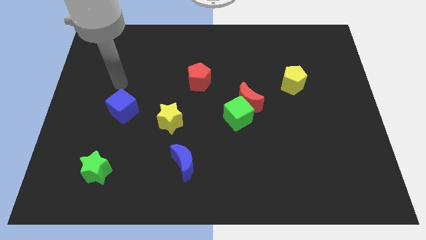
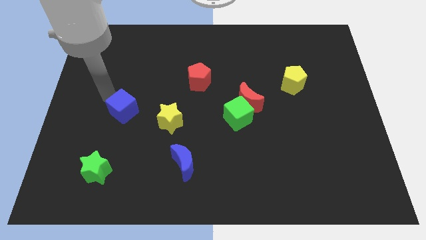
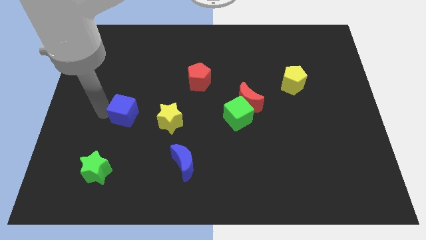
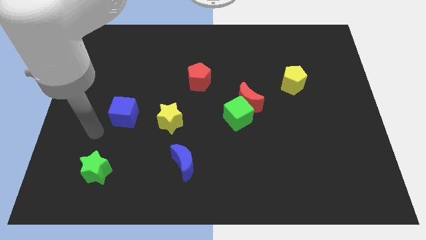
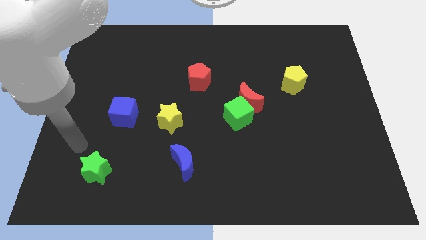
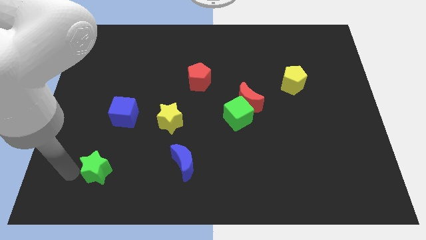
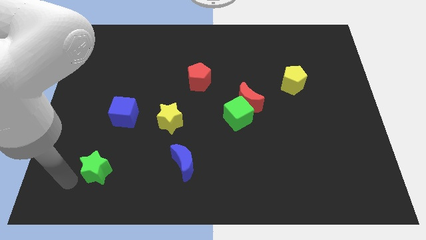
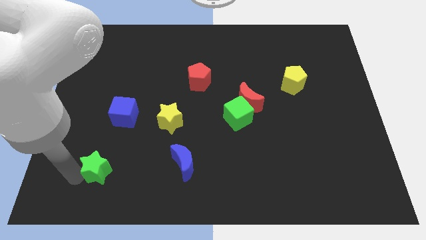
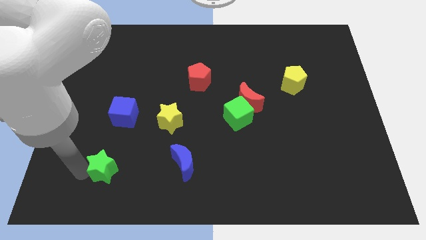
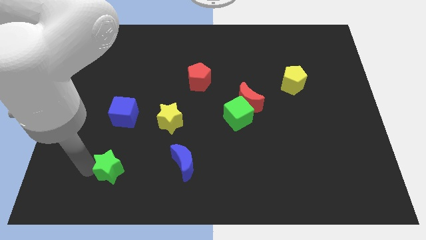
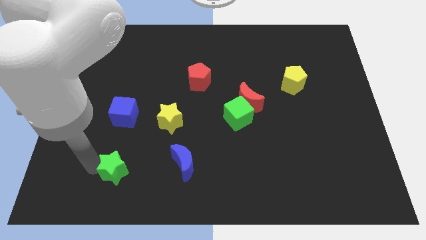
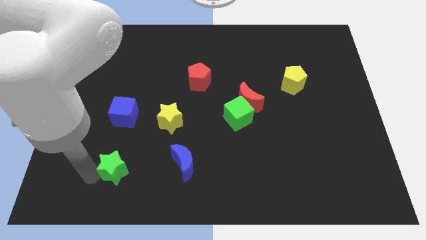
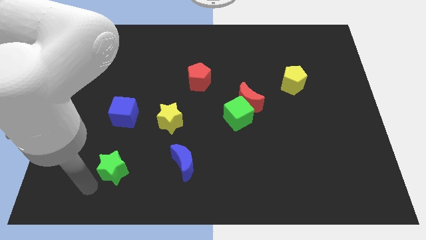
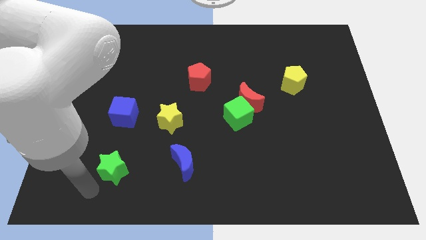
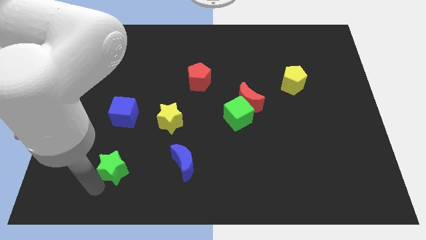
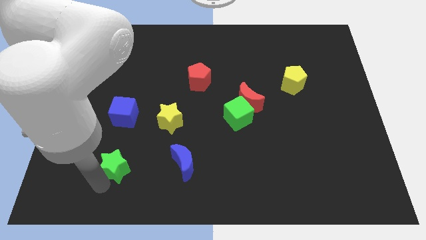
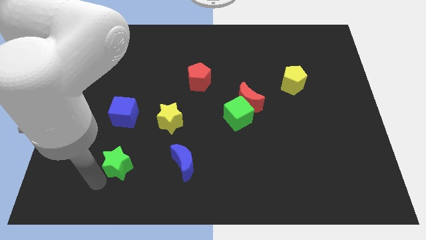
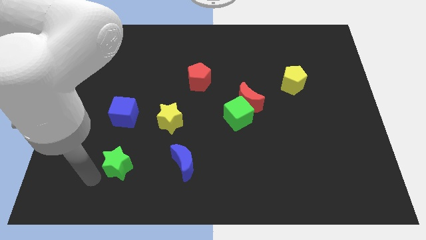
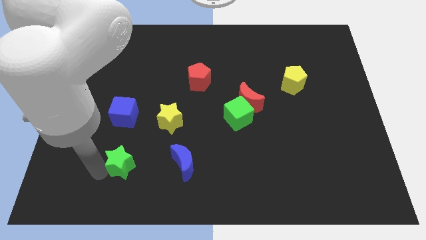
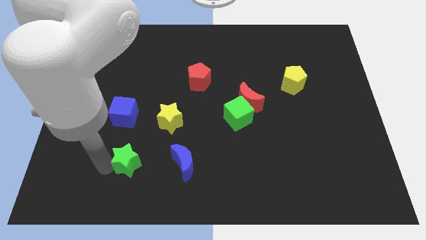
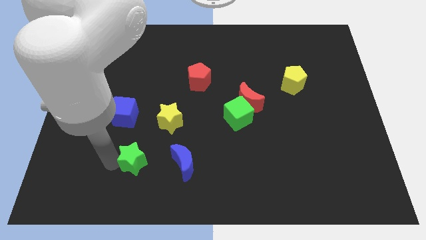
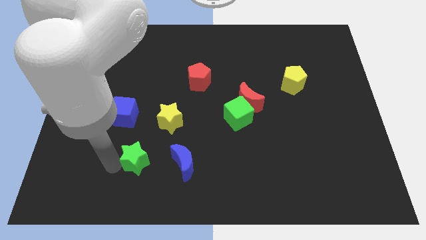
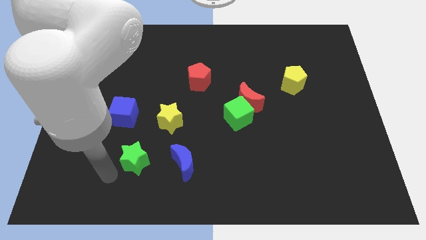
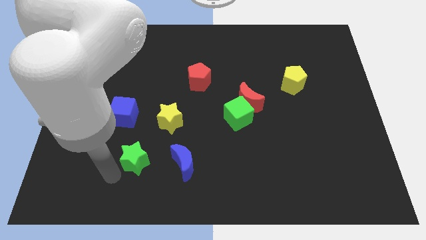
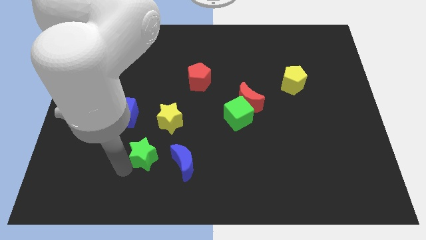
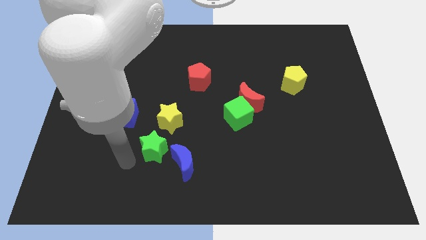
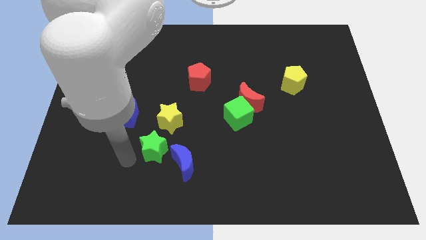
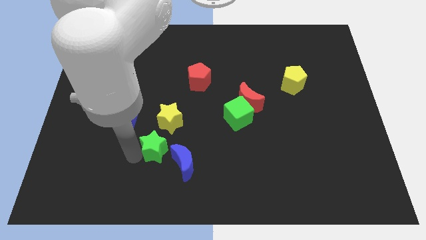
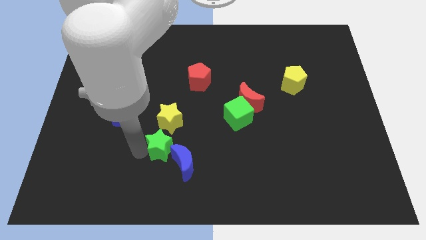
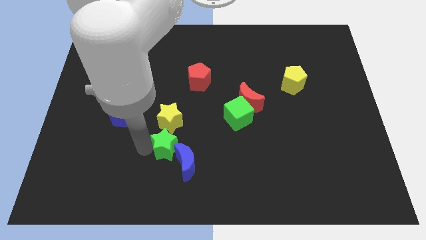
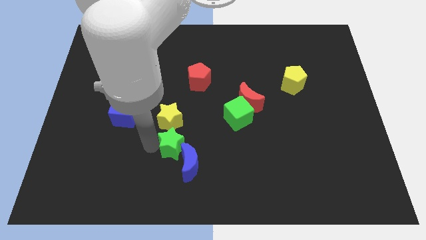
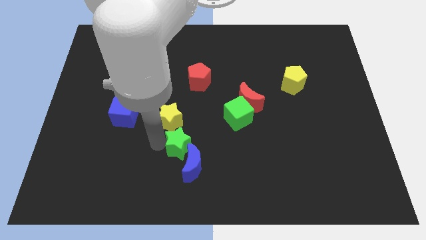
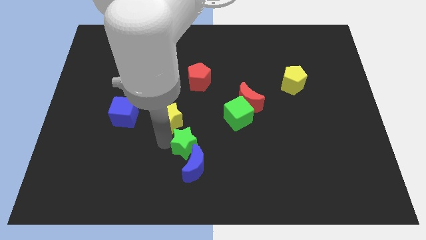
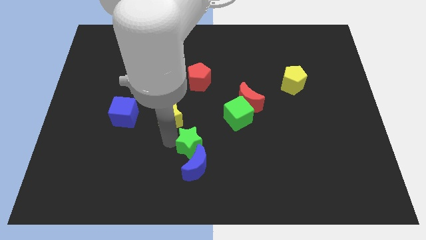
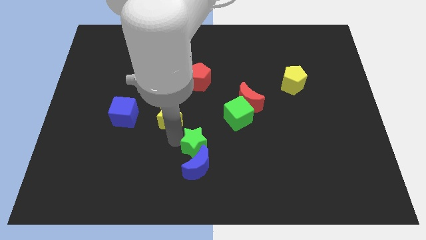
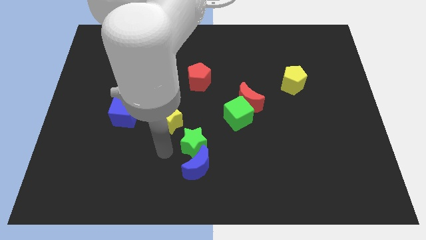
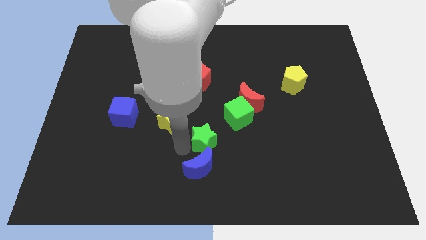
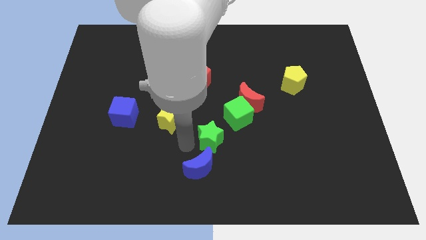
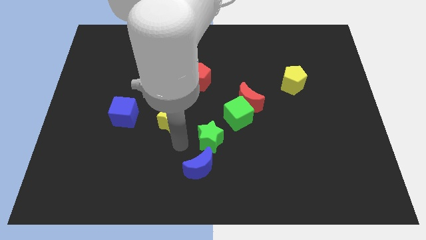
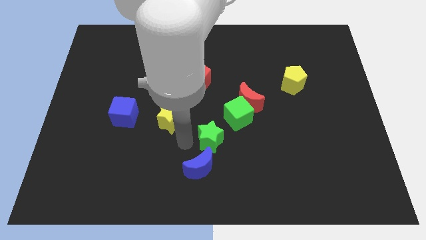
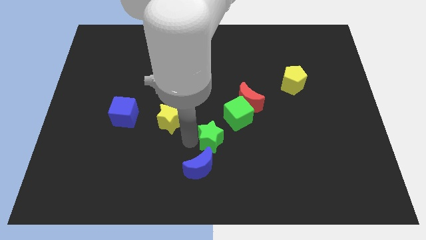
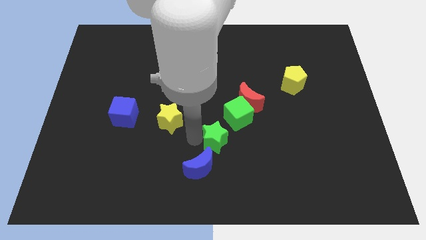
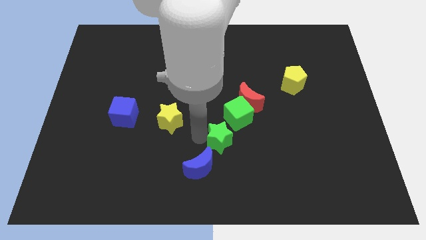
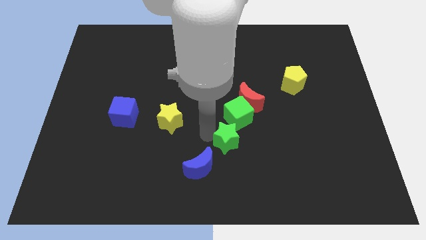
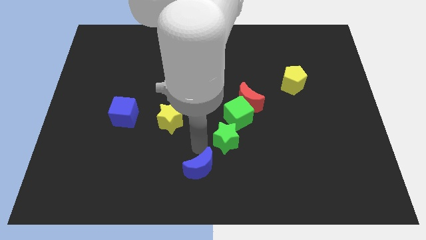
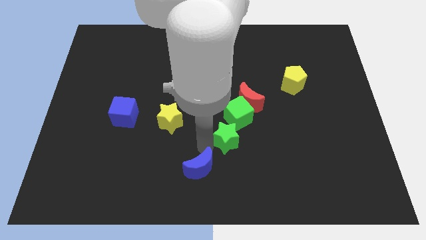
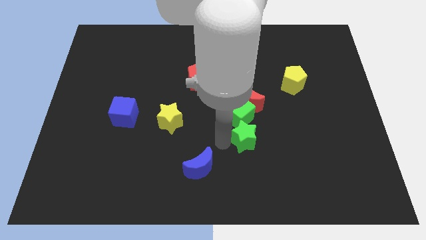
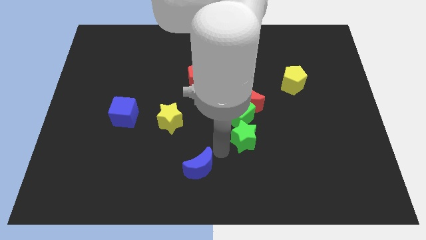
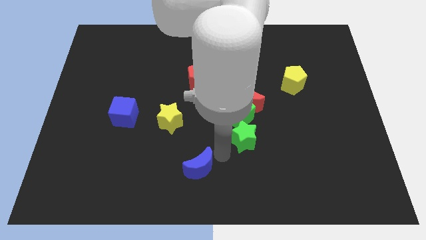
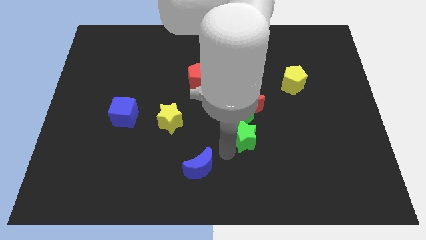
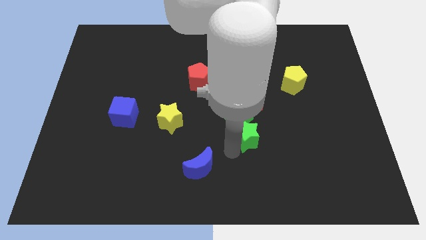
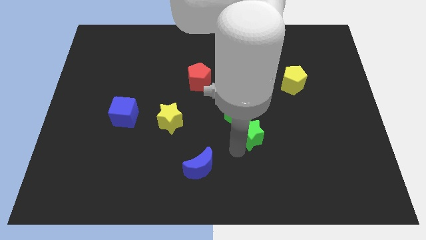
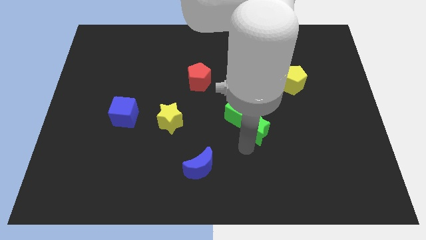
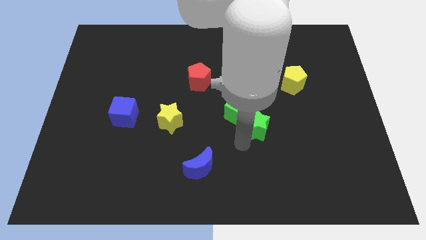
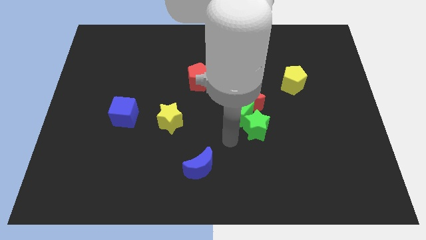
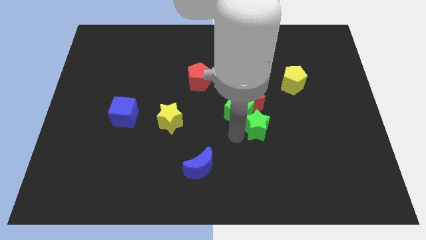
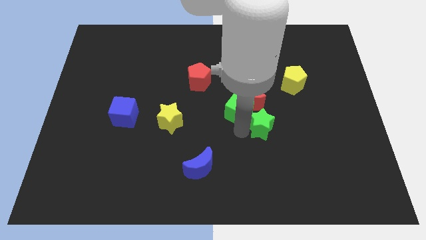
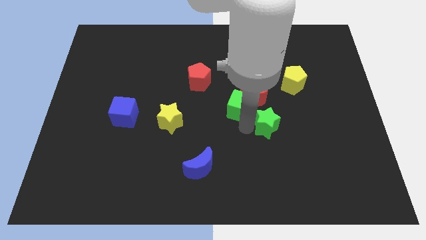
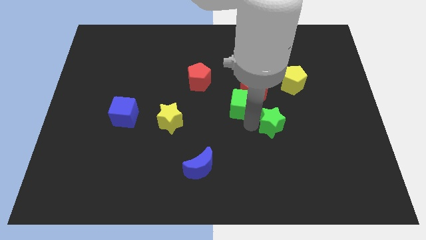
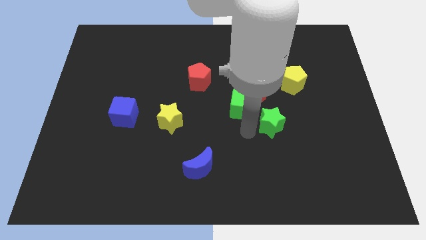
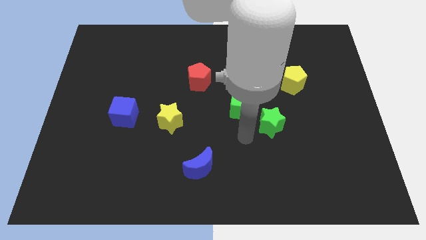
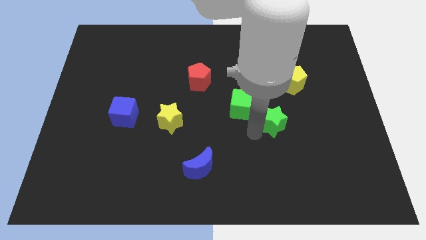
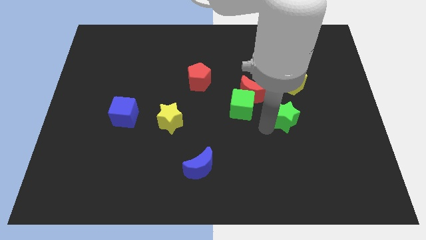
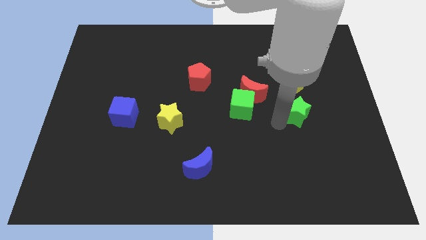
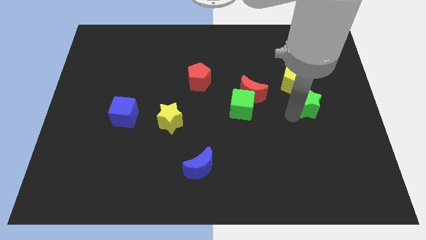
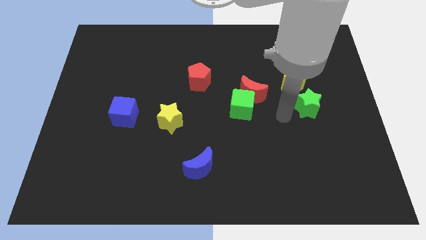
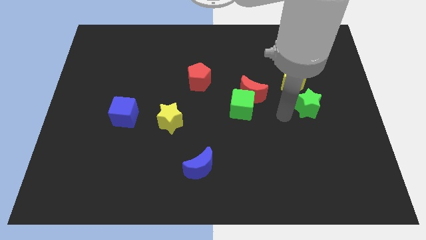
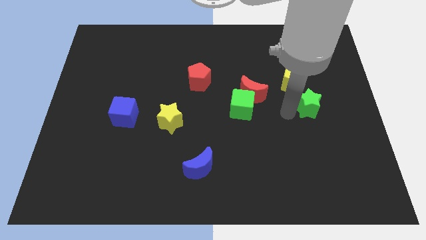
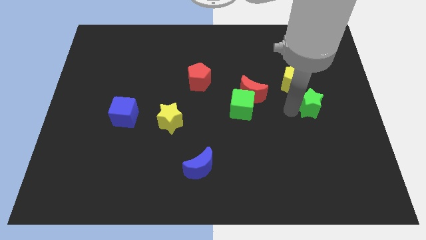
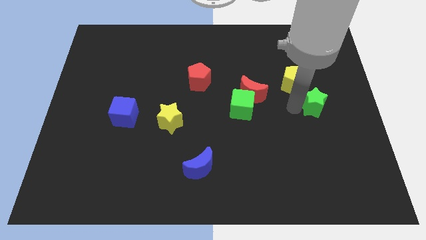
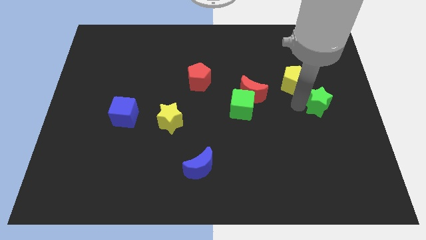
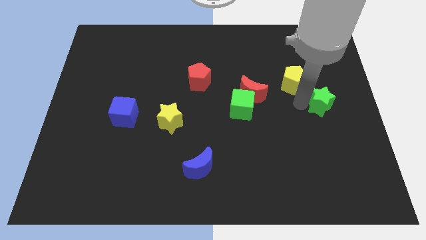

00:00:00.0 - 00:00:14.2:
push the green star to the right side
